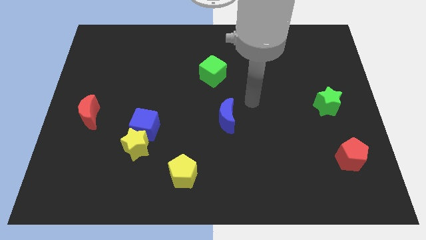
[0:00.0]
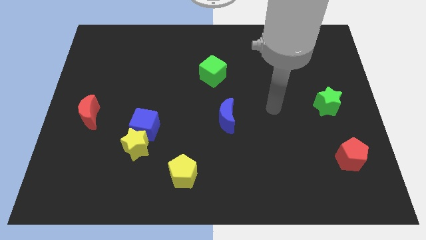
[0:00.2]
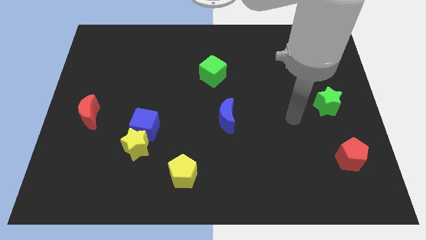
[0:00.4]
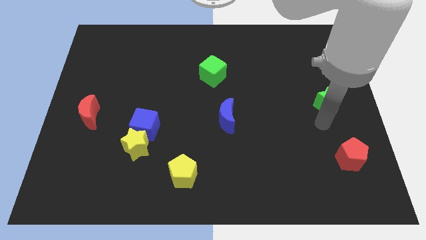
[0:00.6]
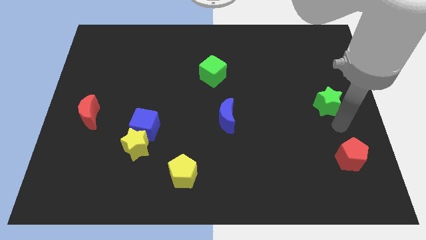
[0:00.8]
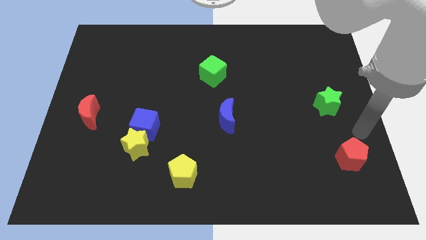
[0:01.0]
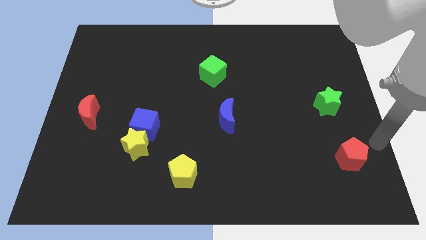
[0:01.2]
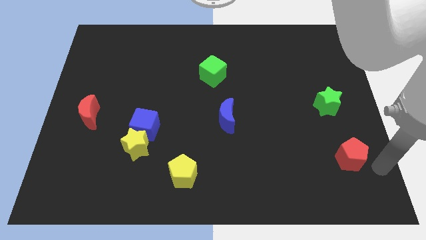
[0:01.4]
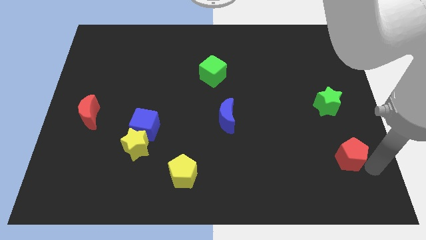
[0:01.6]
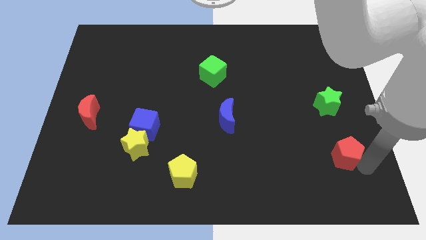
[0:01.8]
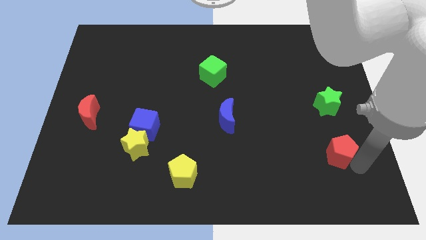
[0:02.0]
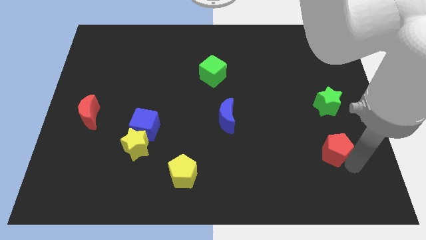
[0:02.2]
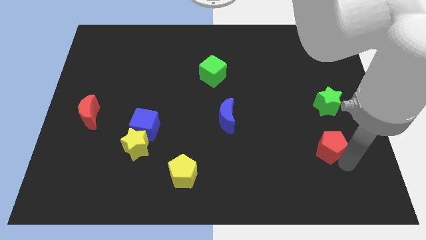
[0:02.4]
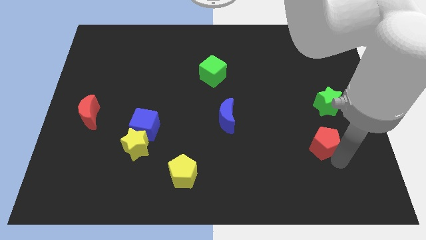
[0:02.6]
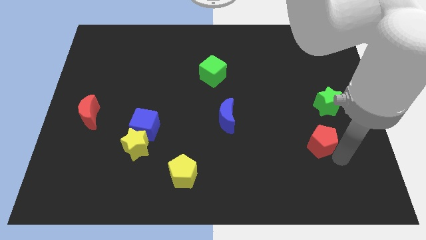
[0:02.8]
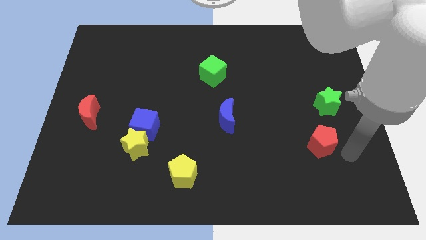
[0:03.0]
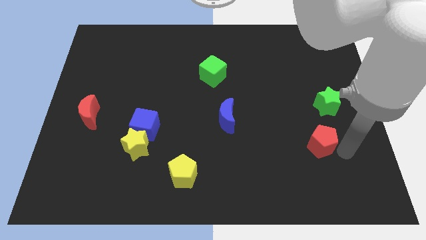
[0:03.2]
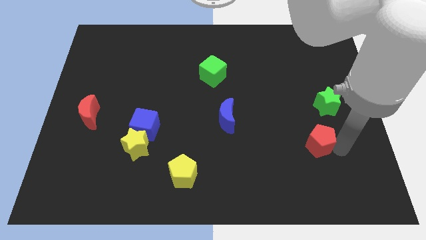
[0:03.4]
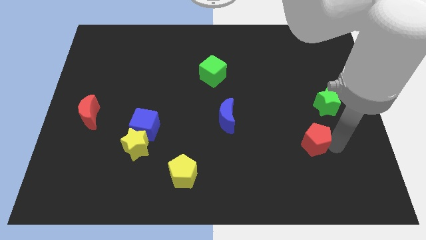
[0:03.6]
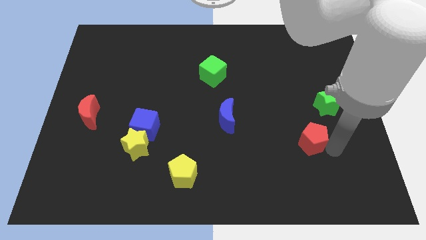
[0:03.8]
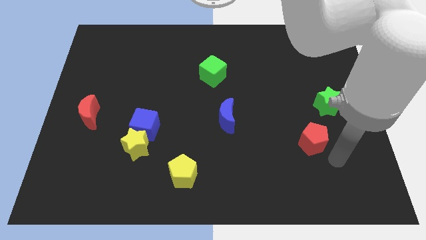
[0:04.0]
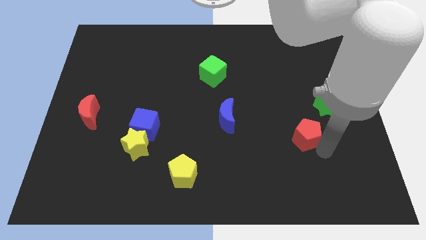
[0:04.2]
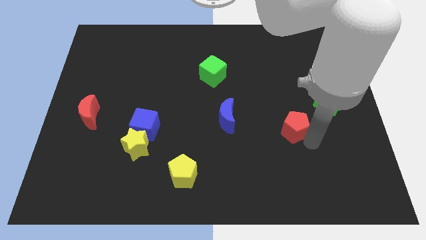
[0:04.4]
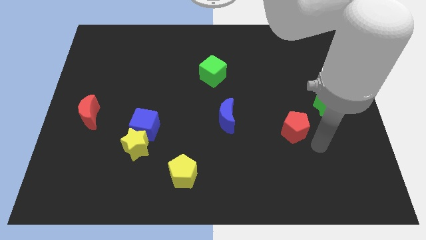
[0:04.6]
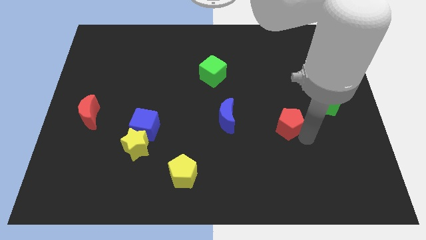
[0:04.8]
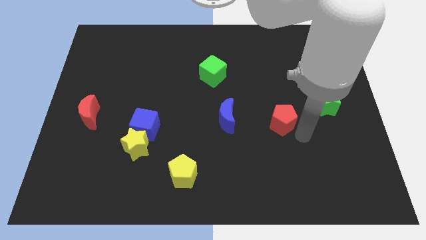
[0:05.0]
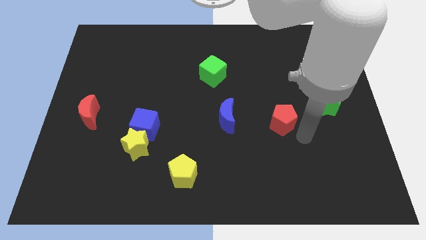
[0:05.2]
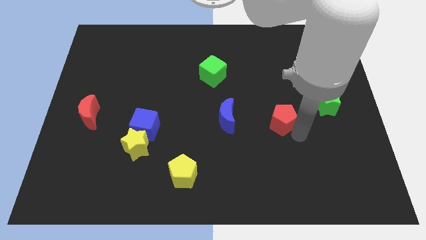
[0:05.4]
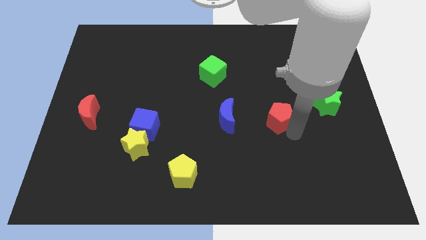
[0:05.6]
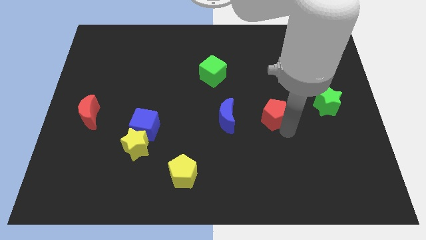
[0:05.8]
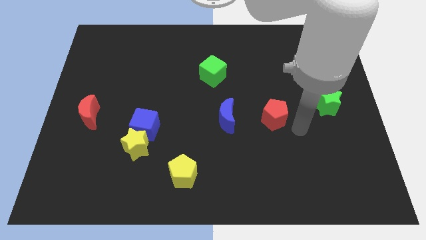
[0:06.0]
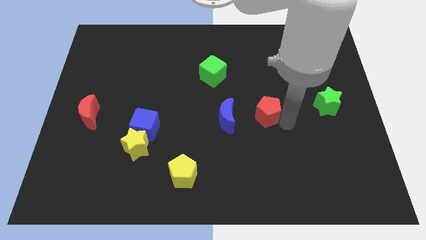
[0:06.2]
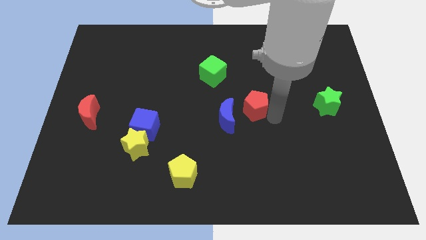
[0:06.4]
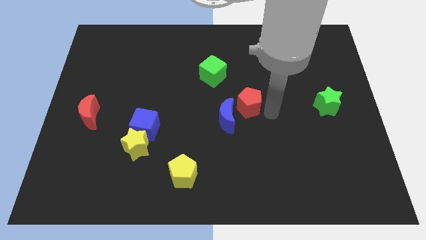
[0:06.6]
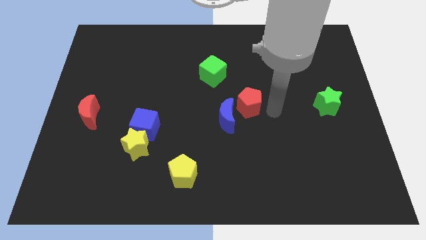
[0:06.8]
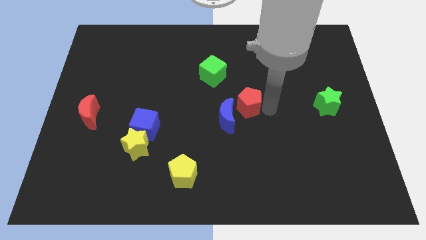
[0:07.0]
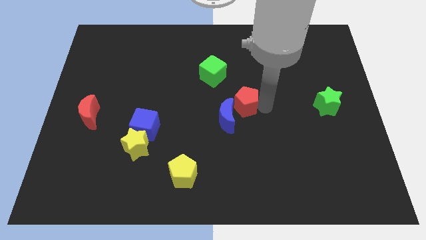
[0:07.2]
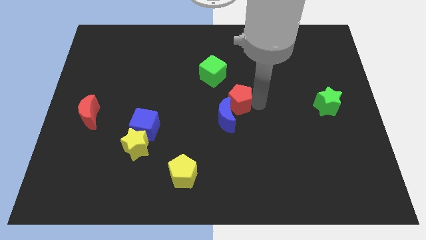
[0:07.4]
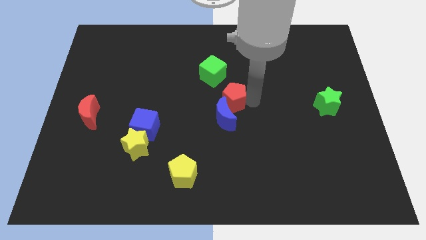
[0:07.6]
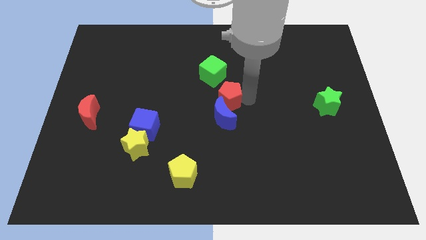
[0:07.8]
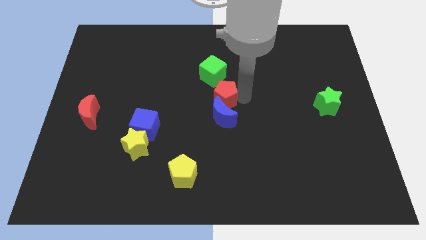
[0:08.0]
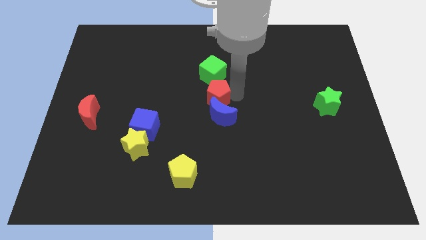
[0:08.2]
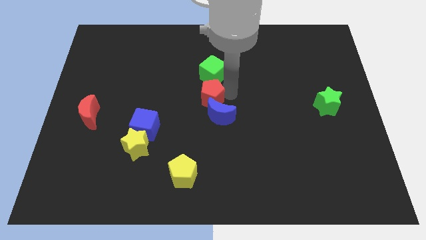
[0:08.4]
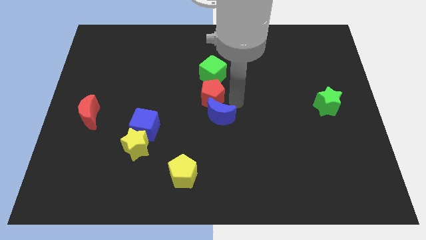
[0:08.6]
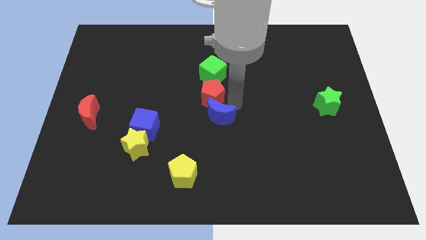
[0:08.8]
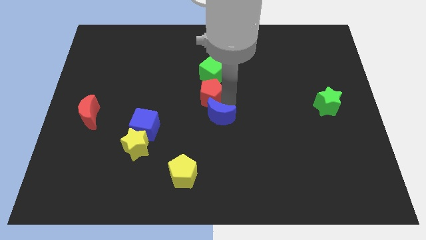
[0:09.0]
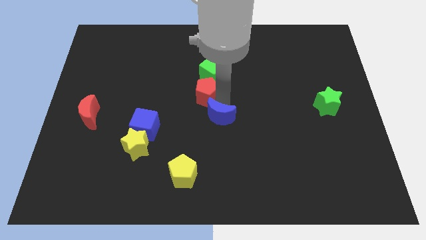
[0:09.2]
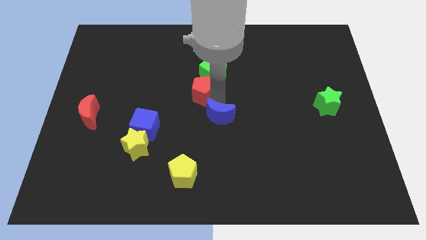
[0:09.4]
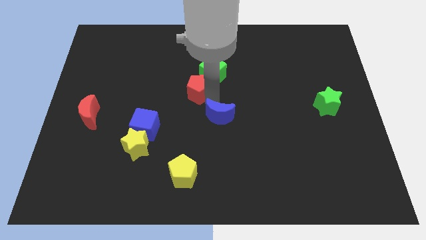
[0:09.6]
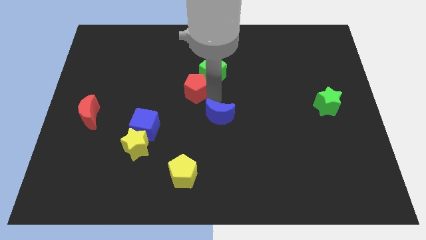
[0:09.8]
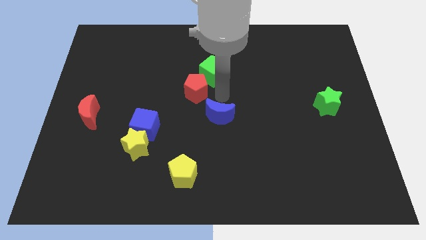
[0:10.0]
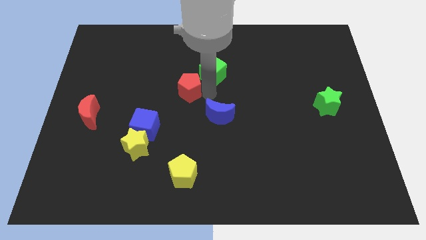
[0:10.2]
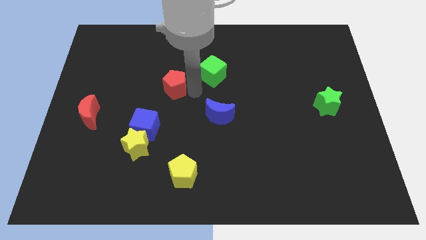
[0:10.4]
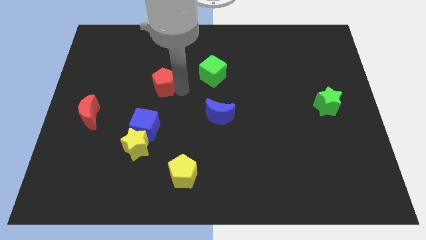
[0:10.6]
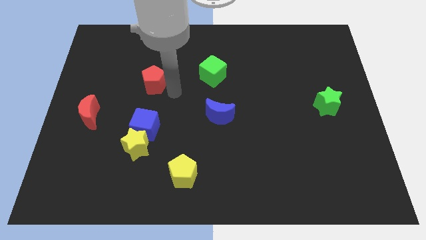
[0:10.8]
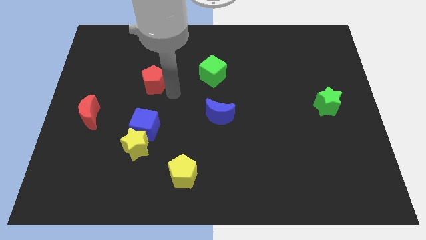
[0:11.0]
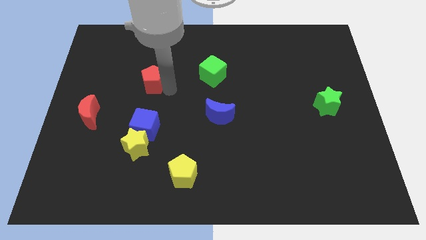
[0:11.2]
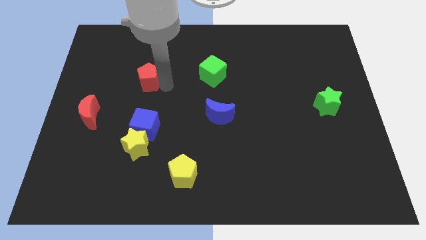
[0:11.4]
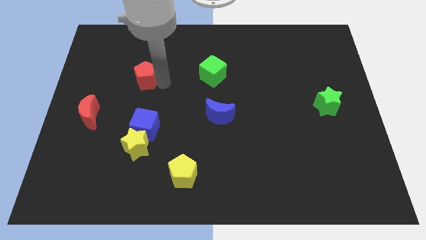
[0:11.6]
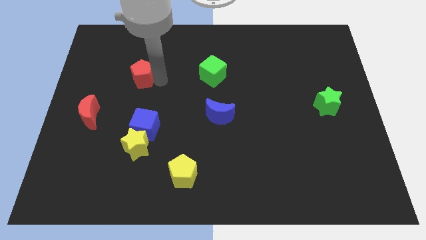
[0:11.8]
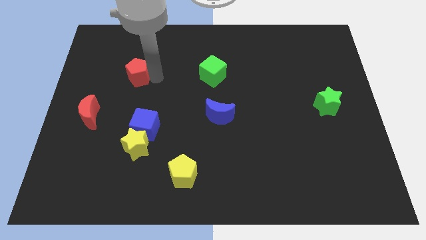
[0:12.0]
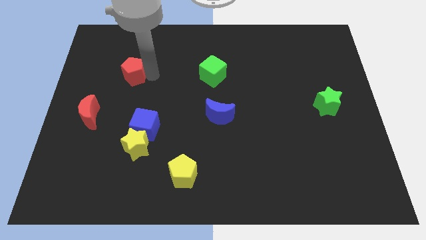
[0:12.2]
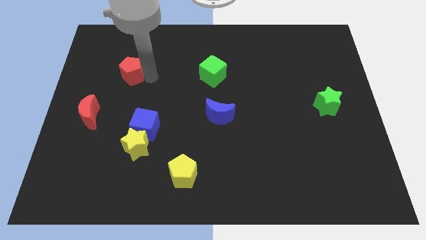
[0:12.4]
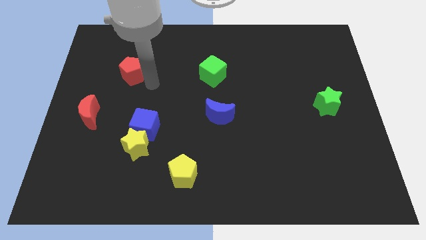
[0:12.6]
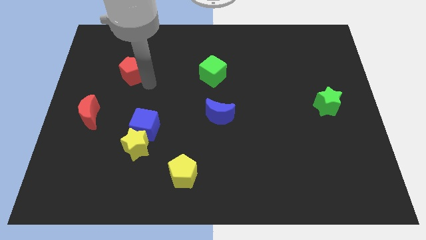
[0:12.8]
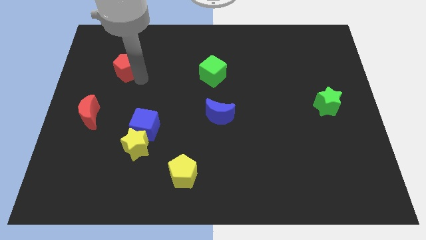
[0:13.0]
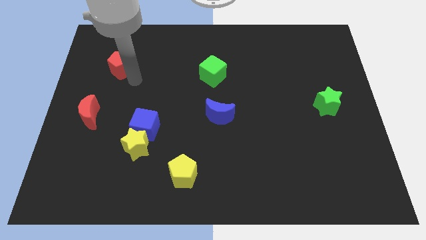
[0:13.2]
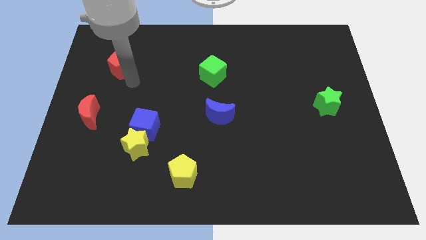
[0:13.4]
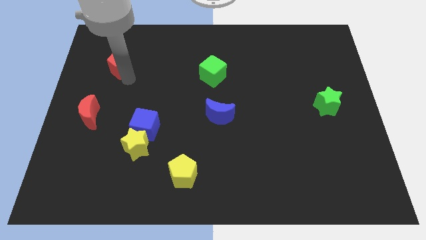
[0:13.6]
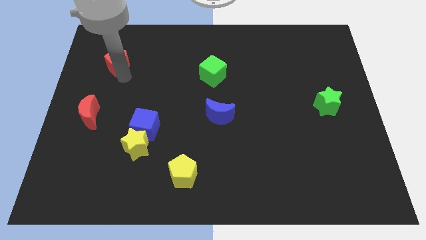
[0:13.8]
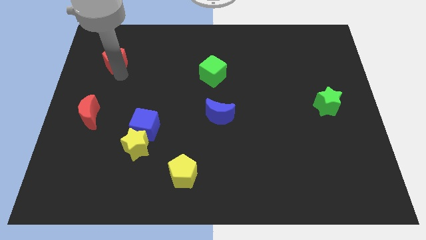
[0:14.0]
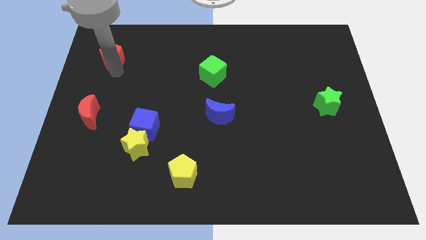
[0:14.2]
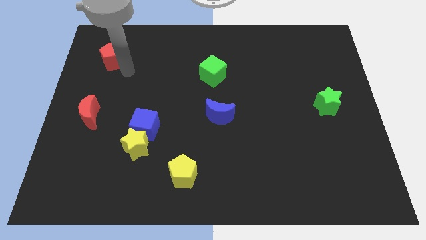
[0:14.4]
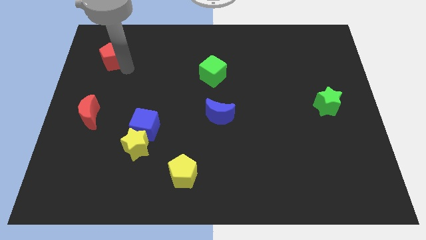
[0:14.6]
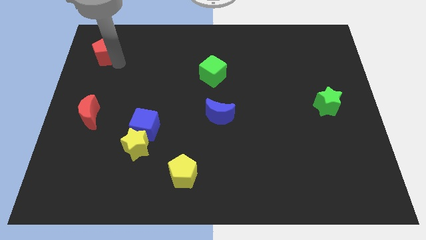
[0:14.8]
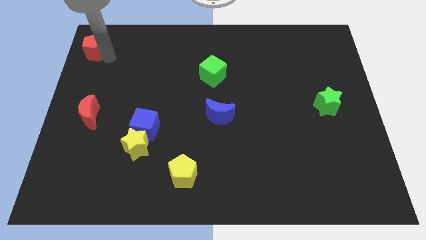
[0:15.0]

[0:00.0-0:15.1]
slide the red pentagon to the top left
